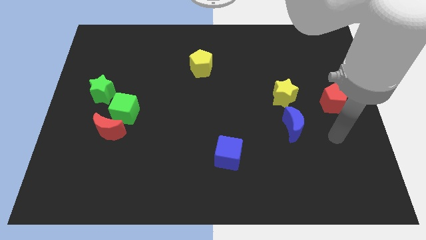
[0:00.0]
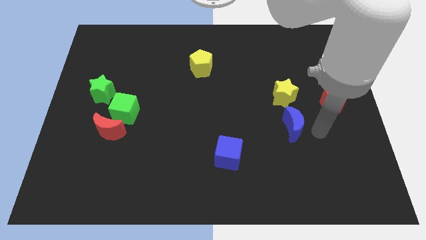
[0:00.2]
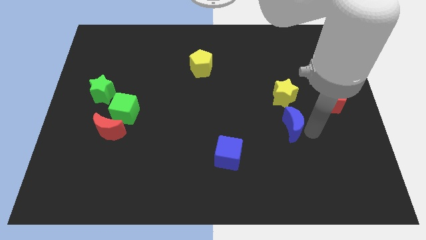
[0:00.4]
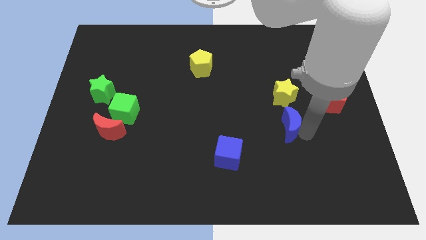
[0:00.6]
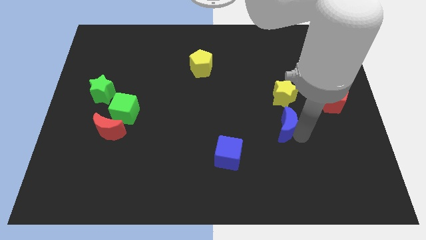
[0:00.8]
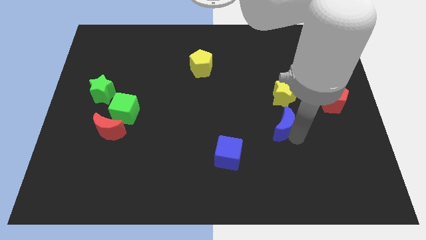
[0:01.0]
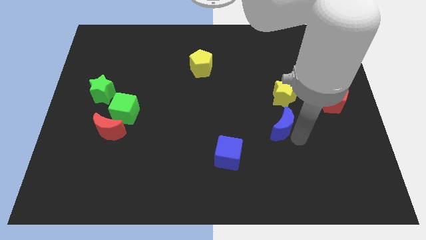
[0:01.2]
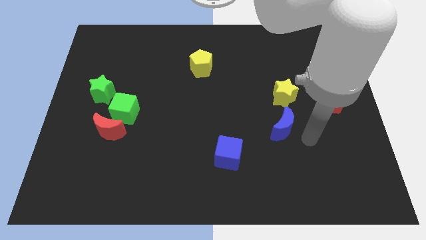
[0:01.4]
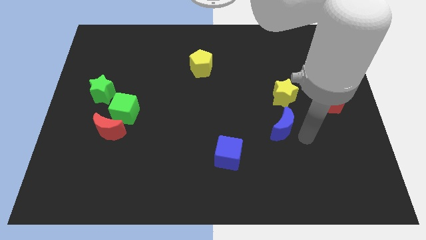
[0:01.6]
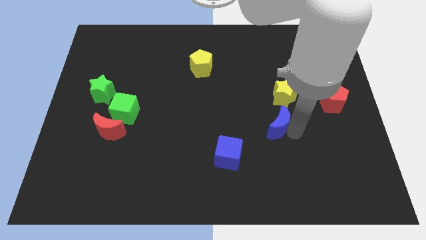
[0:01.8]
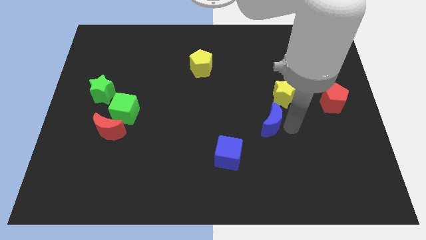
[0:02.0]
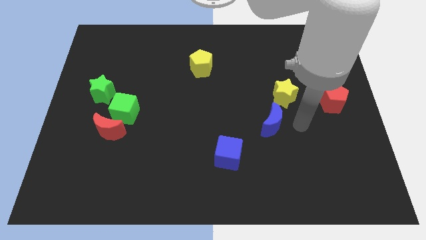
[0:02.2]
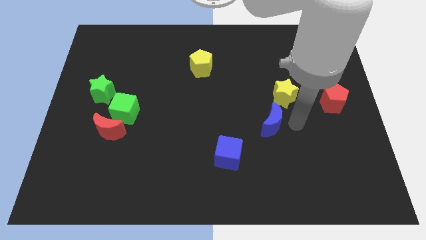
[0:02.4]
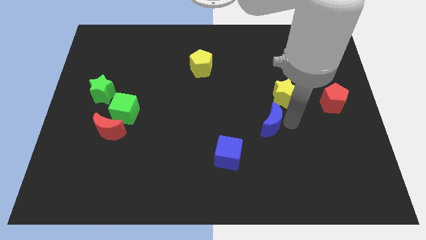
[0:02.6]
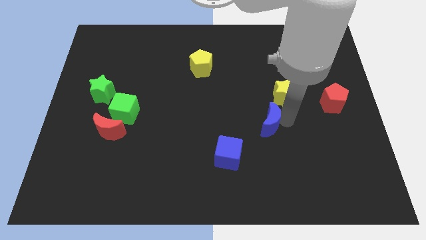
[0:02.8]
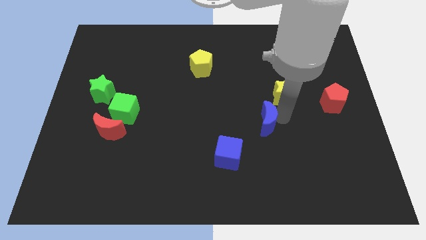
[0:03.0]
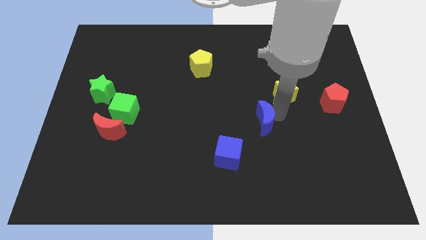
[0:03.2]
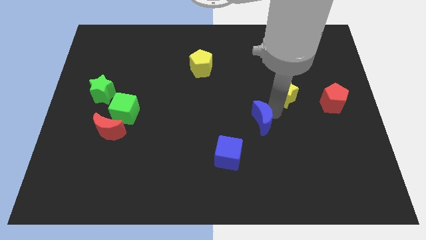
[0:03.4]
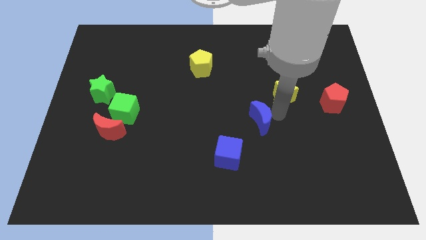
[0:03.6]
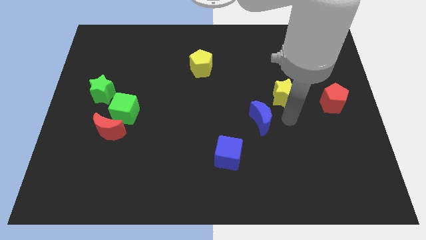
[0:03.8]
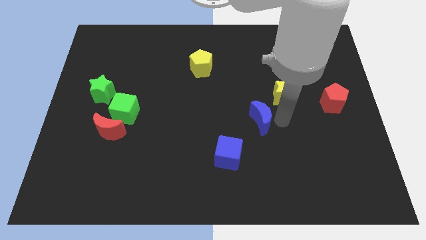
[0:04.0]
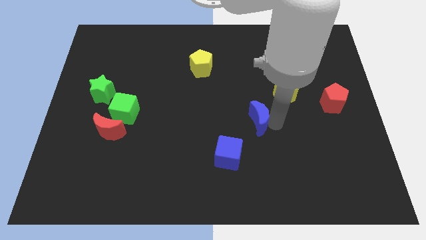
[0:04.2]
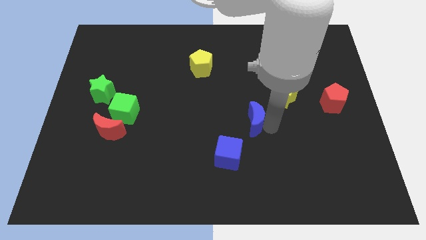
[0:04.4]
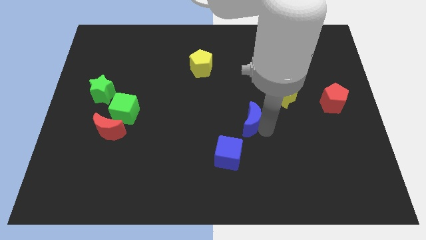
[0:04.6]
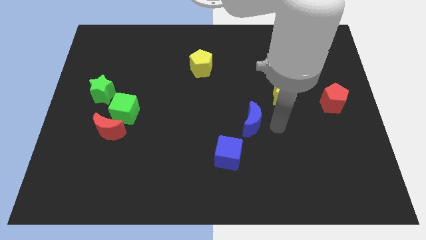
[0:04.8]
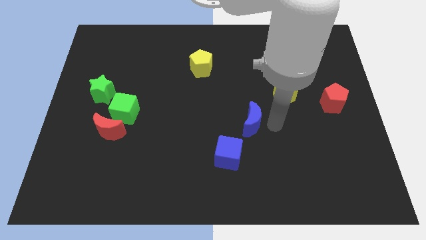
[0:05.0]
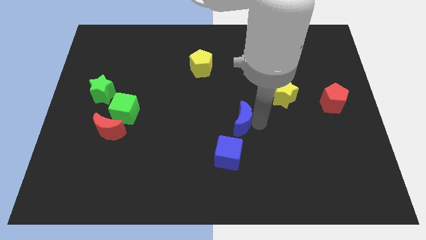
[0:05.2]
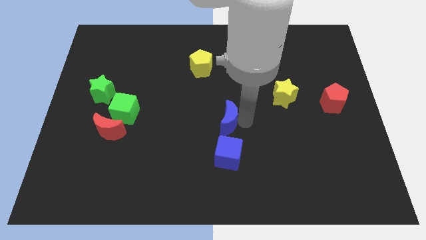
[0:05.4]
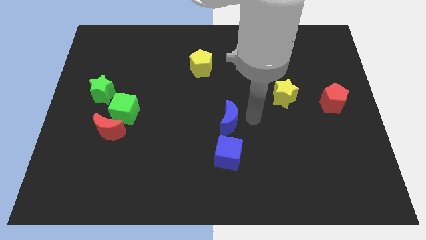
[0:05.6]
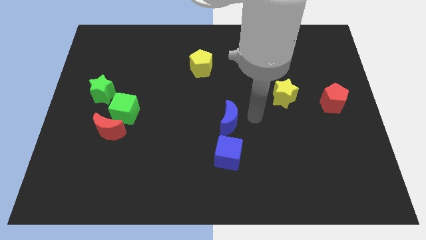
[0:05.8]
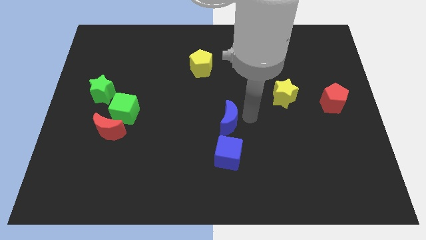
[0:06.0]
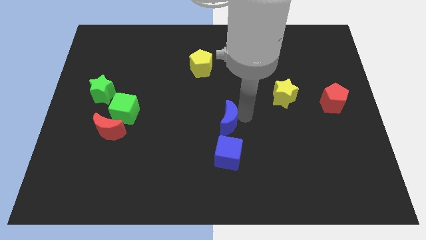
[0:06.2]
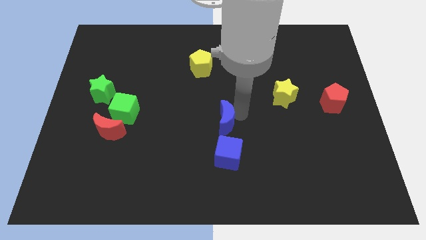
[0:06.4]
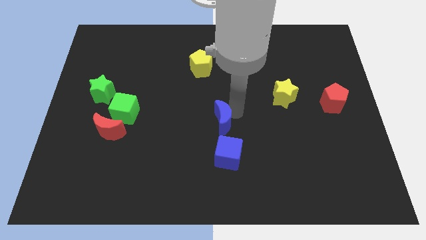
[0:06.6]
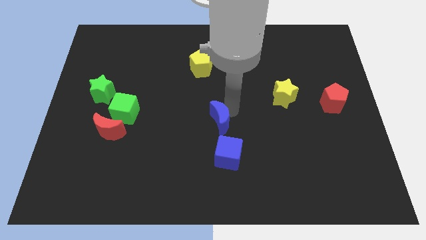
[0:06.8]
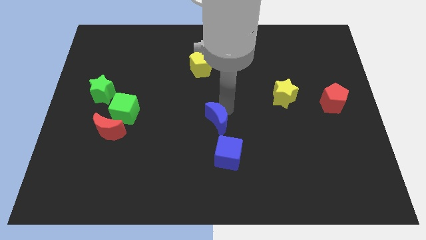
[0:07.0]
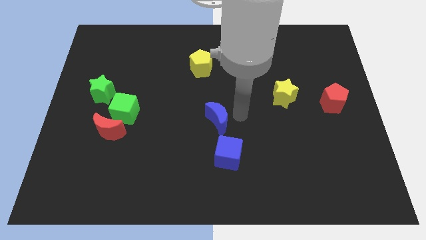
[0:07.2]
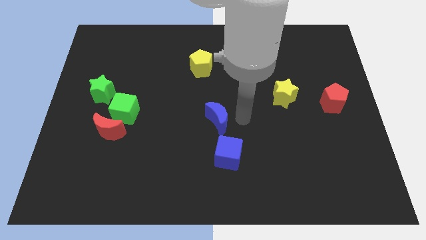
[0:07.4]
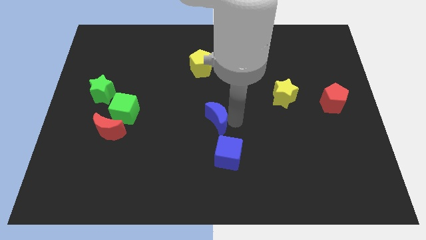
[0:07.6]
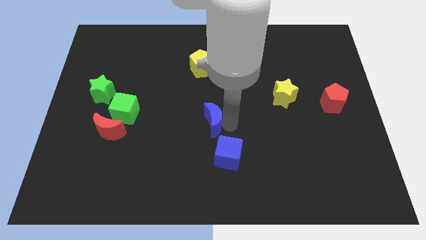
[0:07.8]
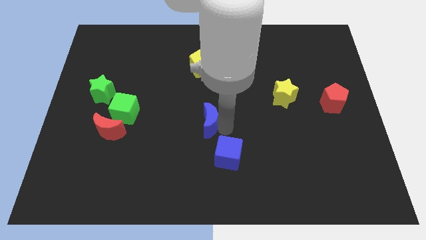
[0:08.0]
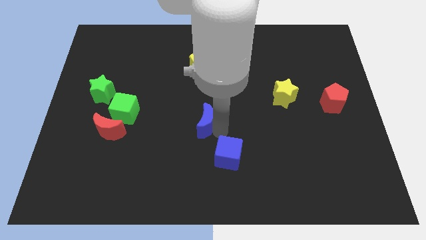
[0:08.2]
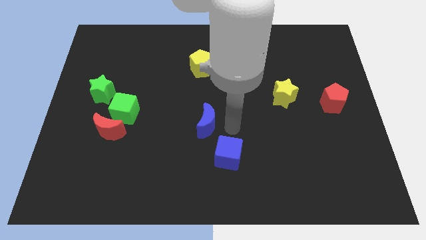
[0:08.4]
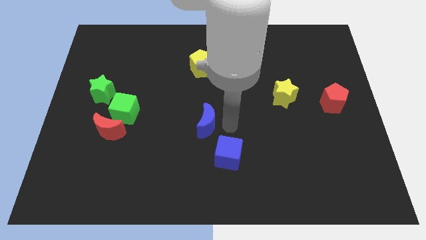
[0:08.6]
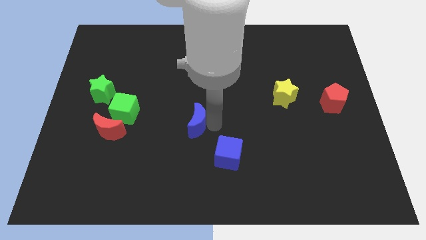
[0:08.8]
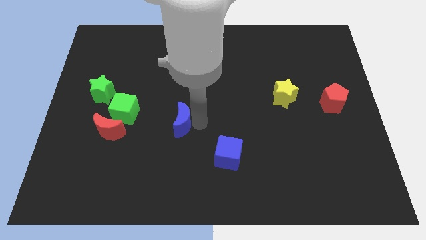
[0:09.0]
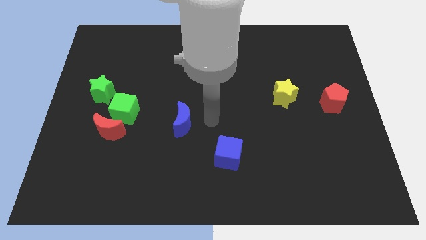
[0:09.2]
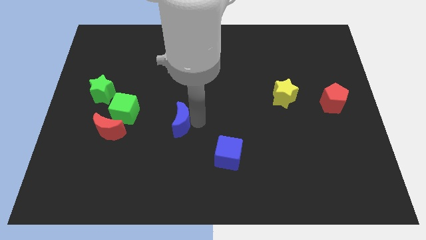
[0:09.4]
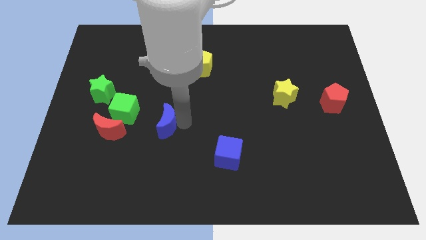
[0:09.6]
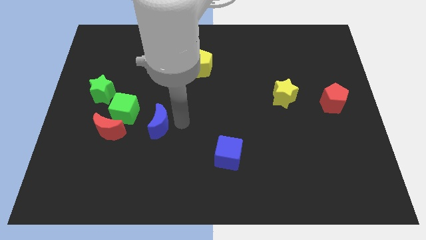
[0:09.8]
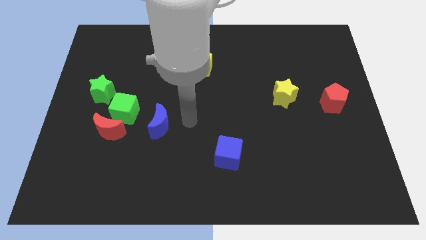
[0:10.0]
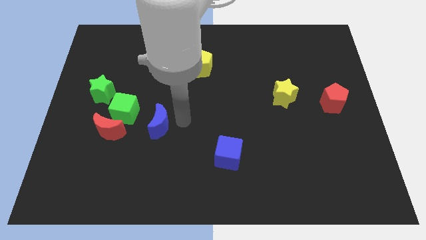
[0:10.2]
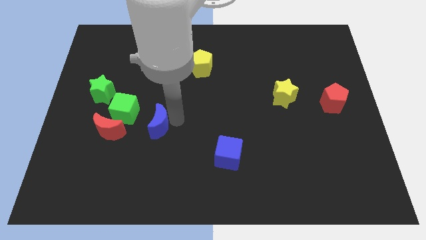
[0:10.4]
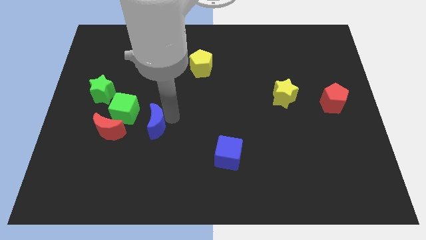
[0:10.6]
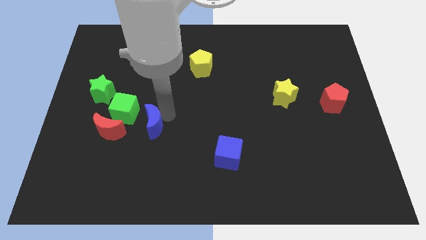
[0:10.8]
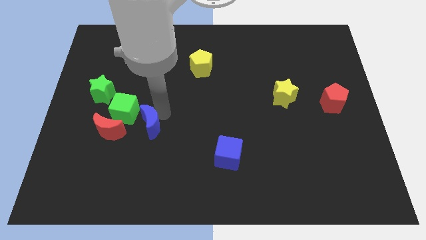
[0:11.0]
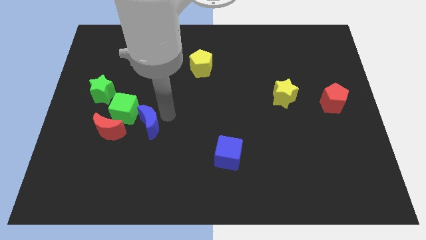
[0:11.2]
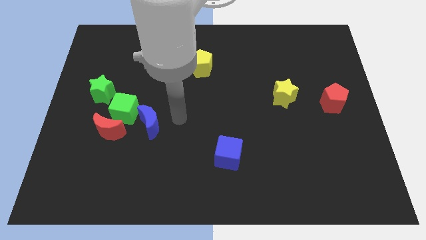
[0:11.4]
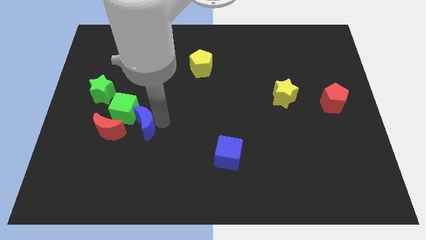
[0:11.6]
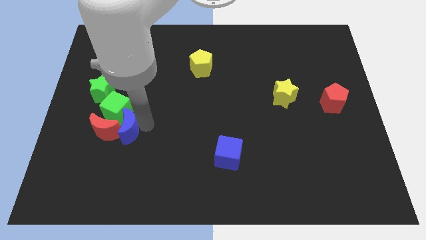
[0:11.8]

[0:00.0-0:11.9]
slide the blue moon close to the red moon

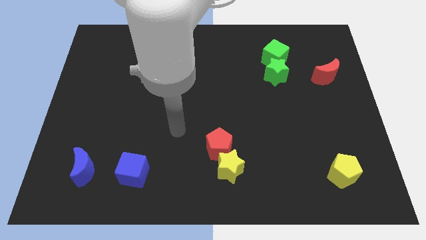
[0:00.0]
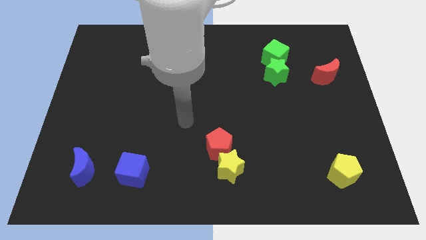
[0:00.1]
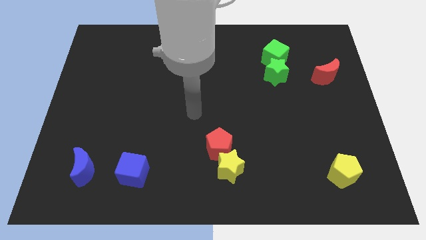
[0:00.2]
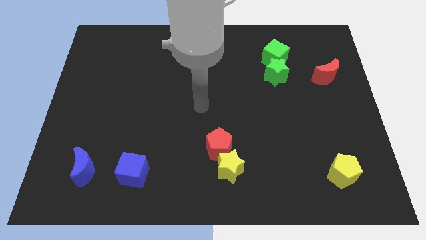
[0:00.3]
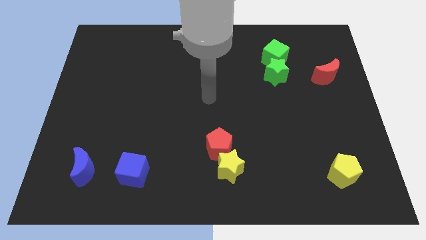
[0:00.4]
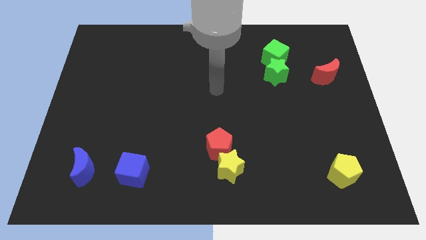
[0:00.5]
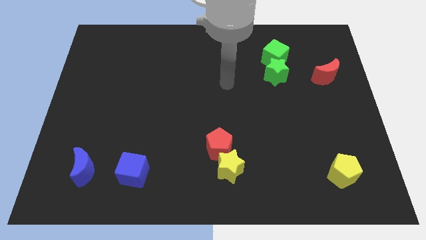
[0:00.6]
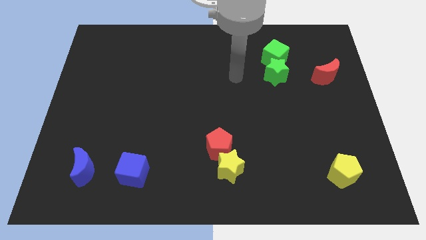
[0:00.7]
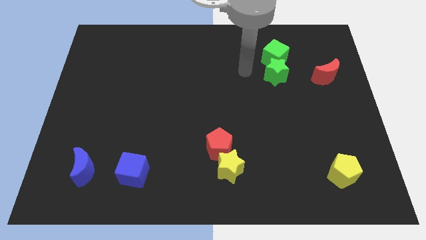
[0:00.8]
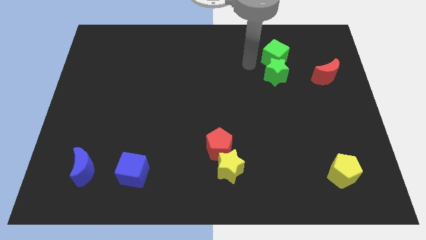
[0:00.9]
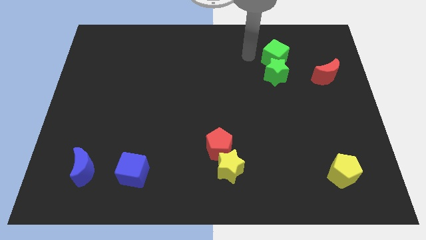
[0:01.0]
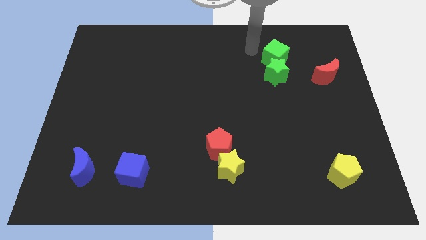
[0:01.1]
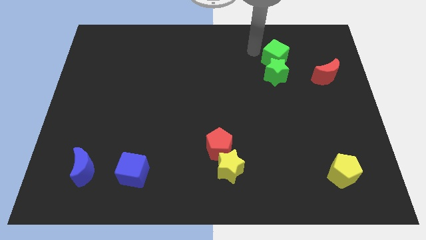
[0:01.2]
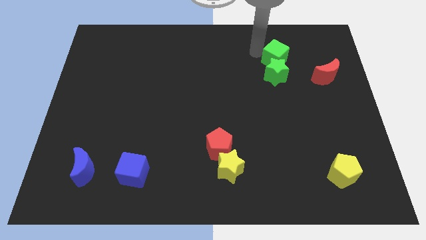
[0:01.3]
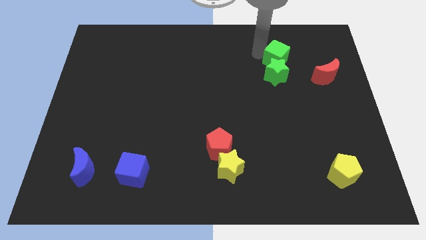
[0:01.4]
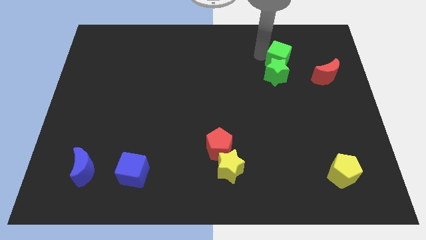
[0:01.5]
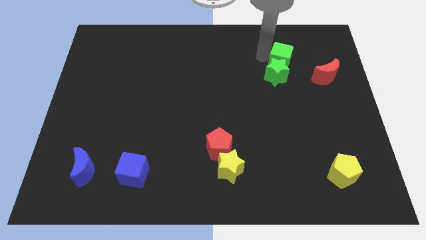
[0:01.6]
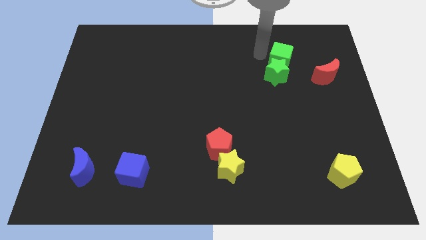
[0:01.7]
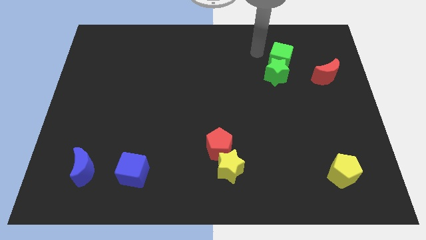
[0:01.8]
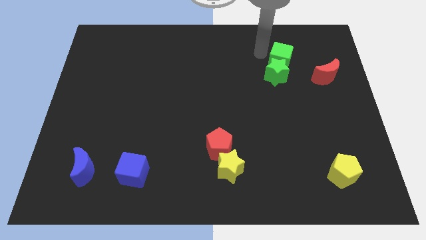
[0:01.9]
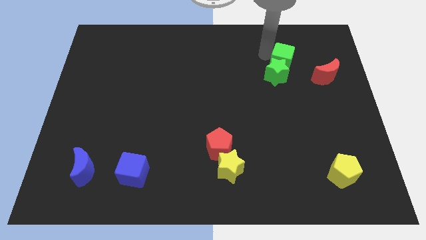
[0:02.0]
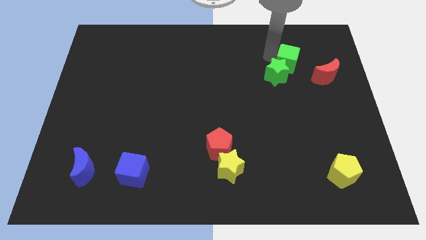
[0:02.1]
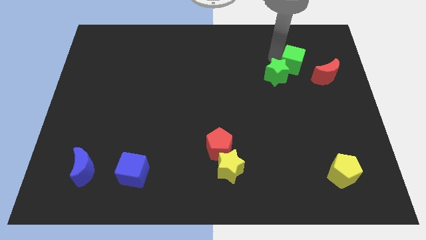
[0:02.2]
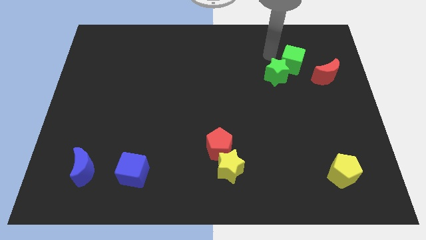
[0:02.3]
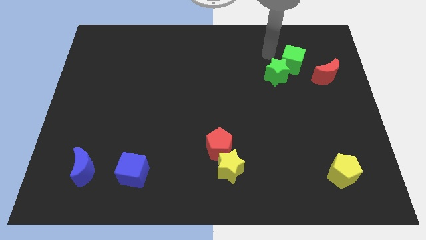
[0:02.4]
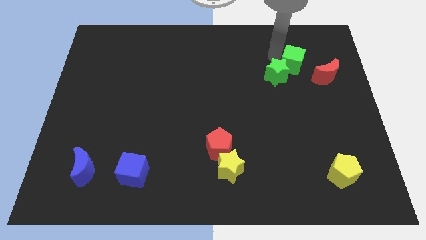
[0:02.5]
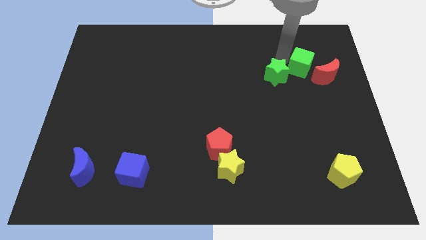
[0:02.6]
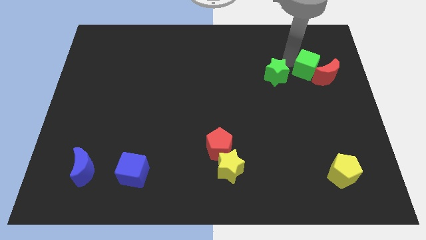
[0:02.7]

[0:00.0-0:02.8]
put the green cube close to the red moon
